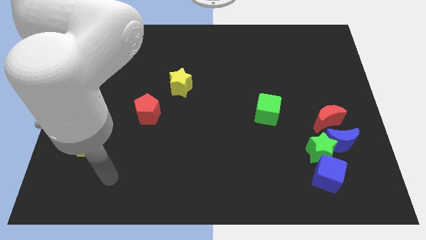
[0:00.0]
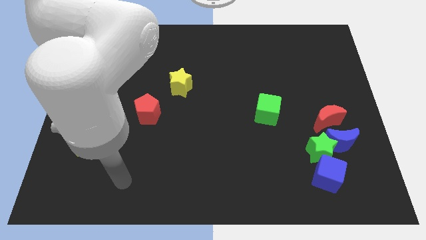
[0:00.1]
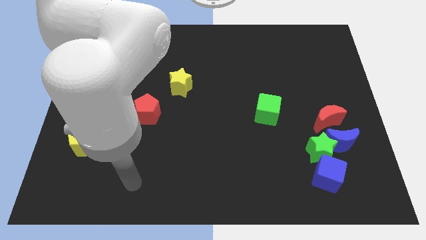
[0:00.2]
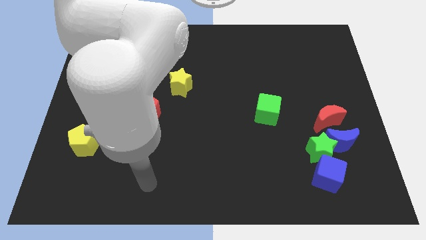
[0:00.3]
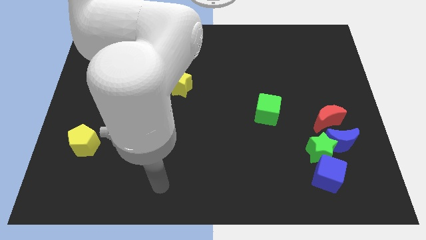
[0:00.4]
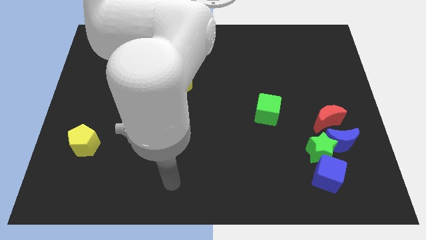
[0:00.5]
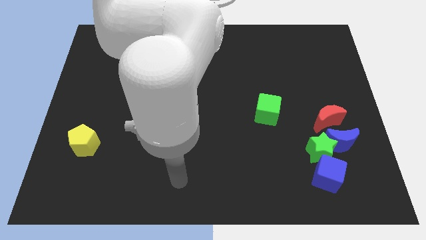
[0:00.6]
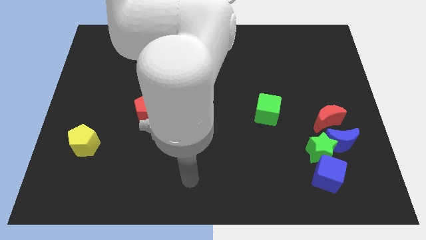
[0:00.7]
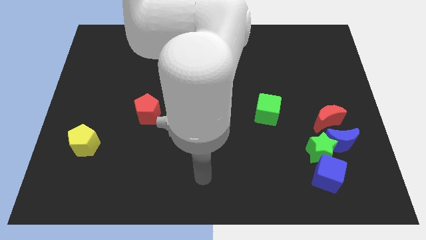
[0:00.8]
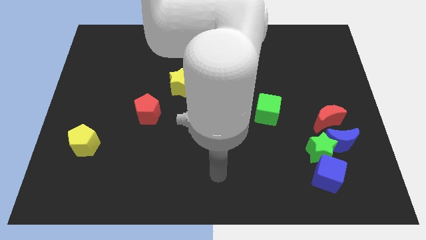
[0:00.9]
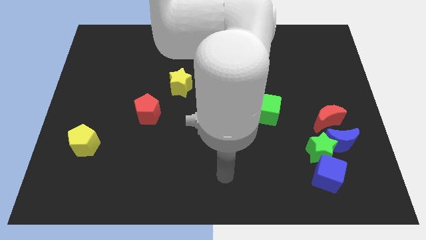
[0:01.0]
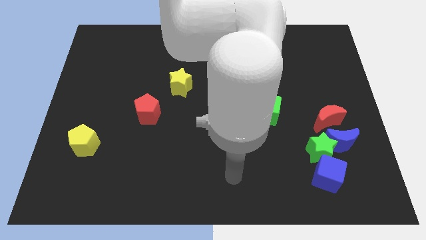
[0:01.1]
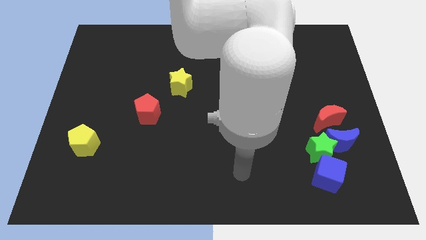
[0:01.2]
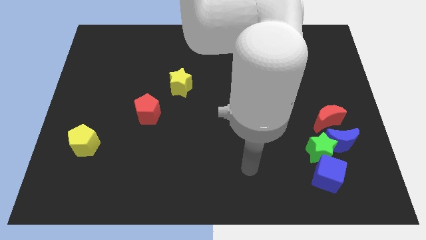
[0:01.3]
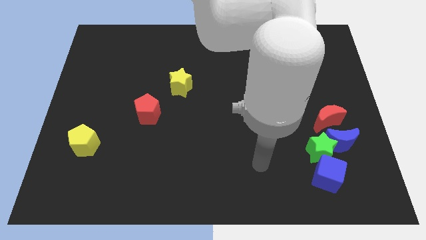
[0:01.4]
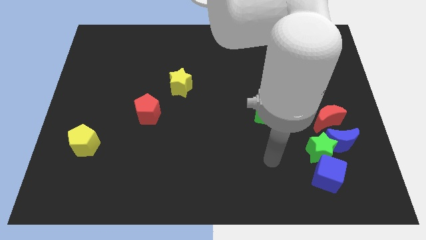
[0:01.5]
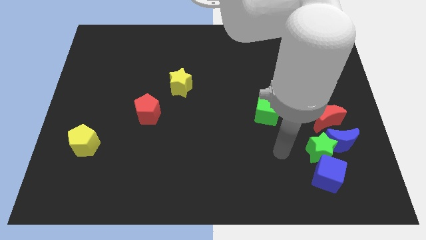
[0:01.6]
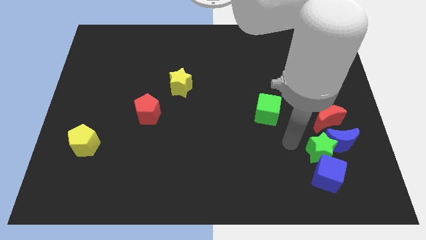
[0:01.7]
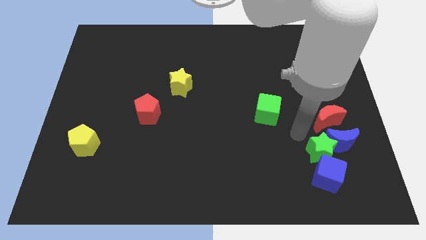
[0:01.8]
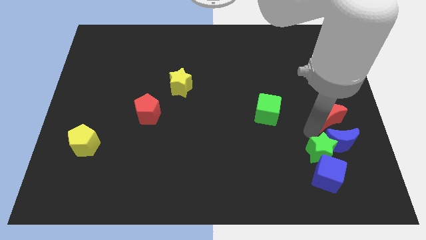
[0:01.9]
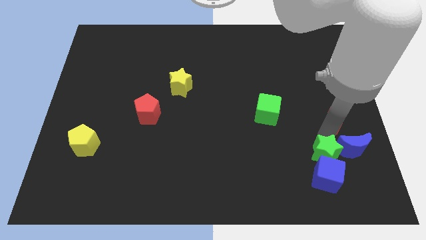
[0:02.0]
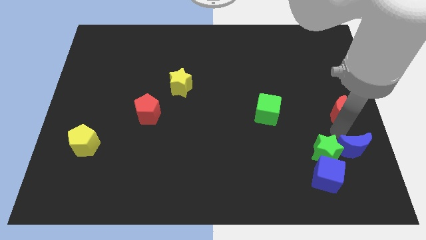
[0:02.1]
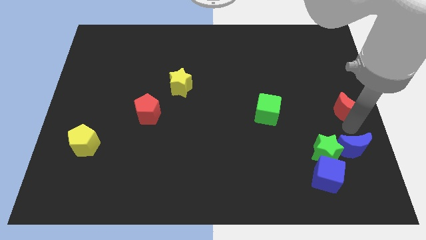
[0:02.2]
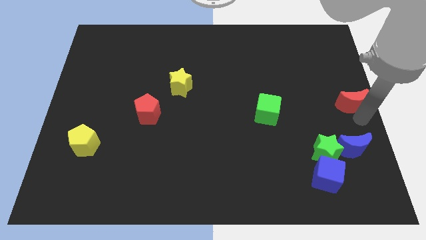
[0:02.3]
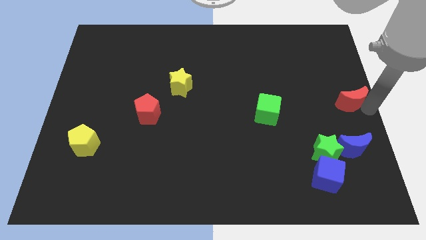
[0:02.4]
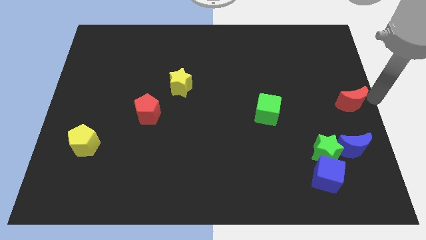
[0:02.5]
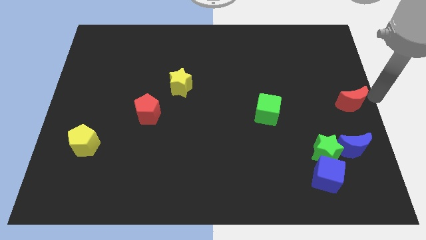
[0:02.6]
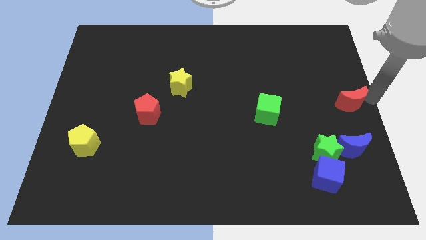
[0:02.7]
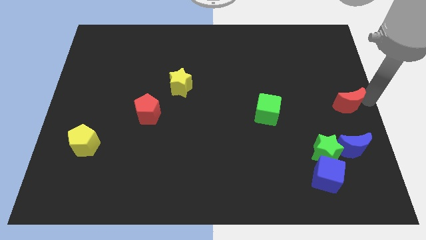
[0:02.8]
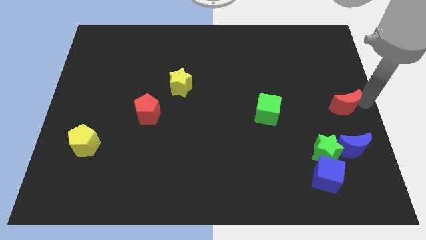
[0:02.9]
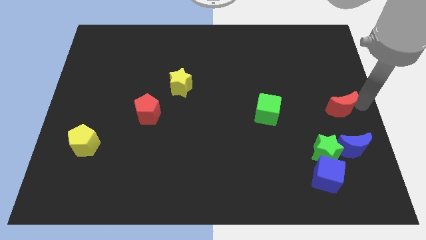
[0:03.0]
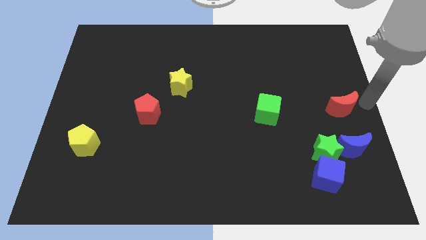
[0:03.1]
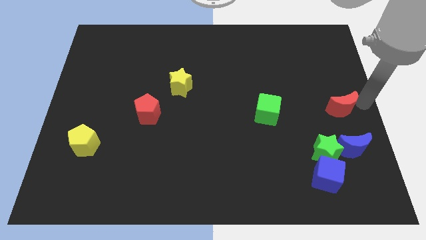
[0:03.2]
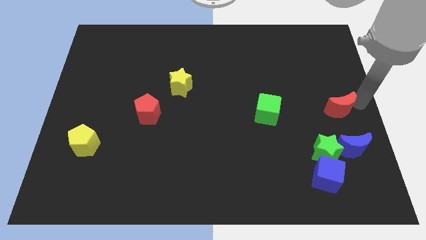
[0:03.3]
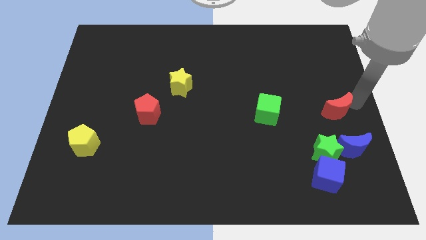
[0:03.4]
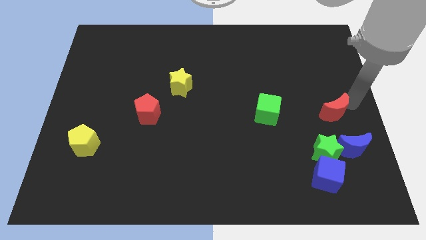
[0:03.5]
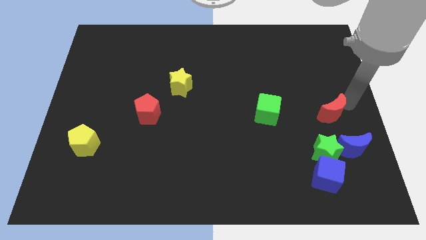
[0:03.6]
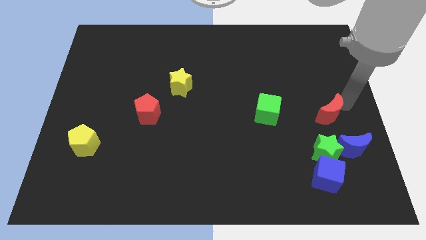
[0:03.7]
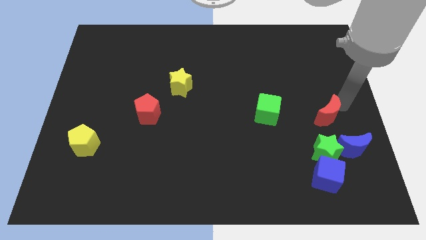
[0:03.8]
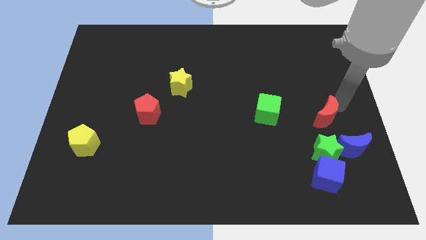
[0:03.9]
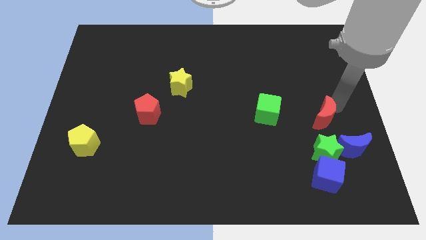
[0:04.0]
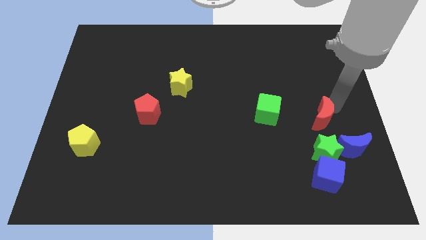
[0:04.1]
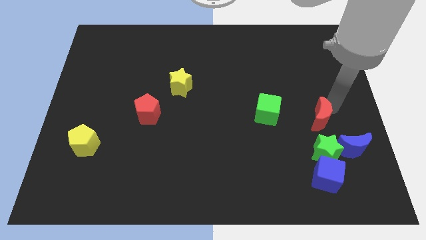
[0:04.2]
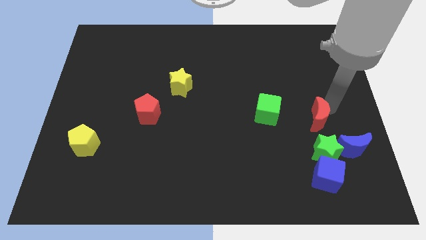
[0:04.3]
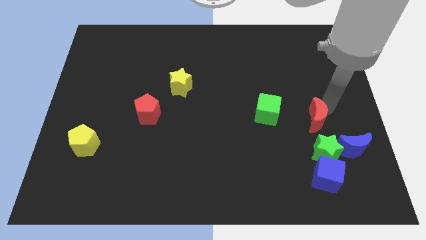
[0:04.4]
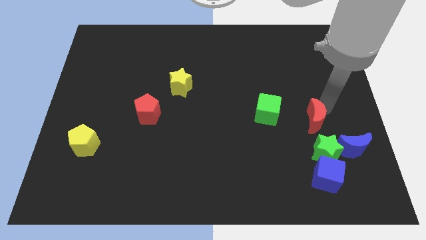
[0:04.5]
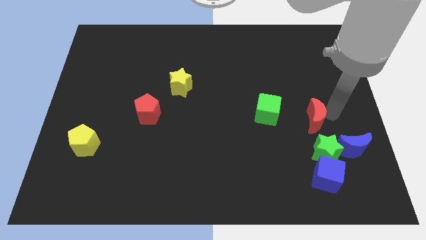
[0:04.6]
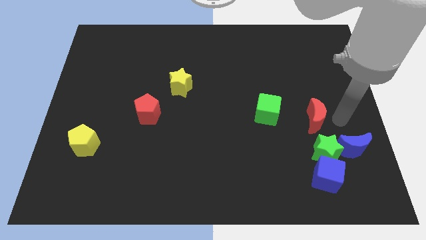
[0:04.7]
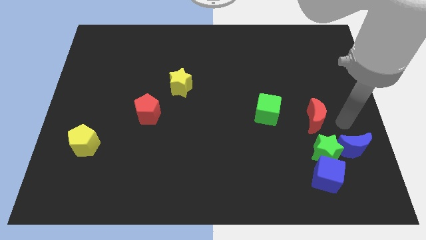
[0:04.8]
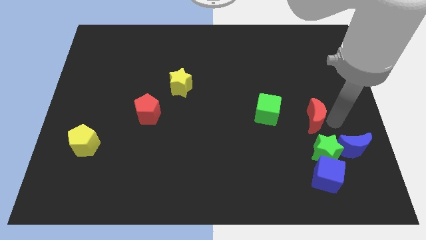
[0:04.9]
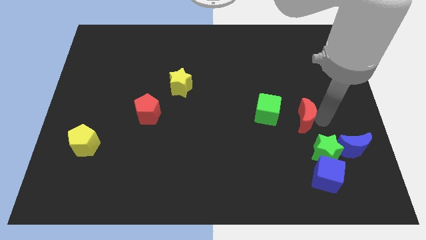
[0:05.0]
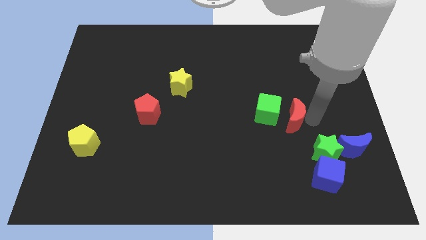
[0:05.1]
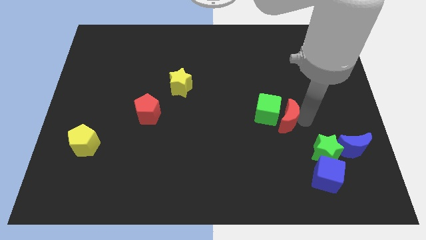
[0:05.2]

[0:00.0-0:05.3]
push the red moon to the green cube

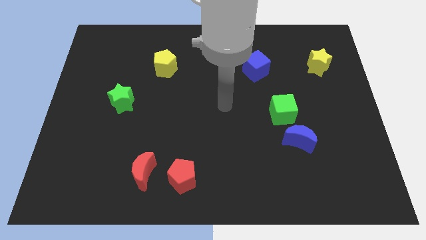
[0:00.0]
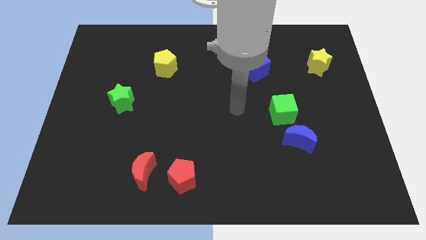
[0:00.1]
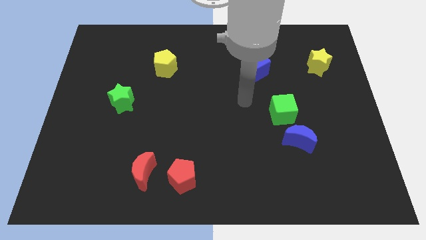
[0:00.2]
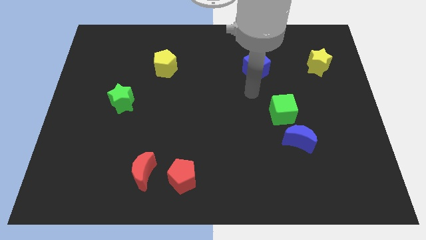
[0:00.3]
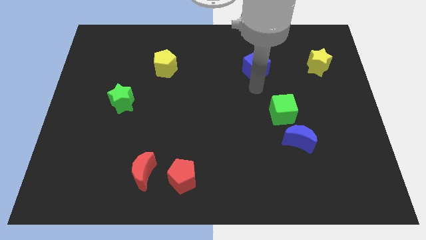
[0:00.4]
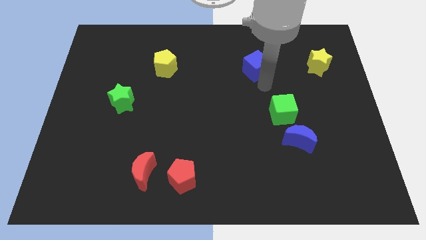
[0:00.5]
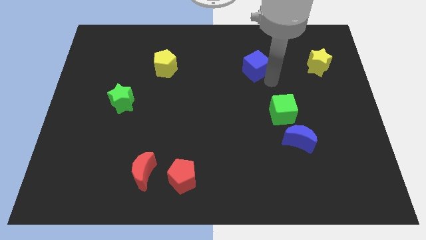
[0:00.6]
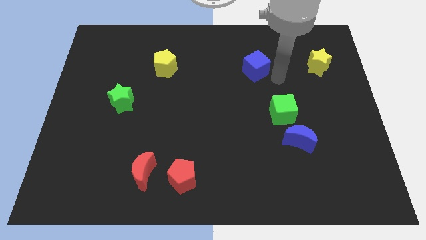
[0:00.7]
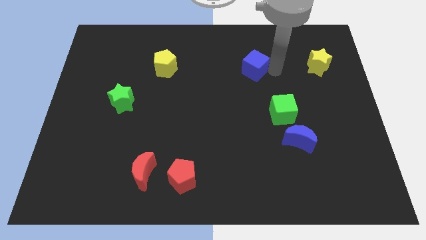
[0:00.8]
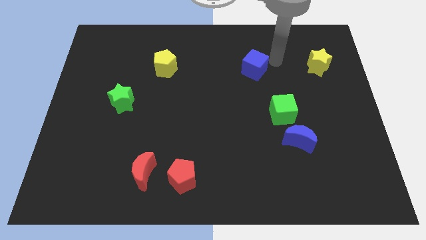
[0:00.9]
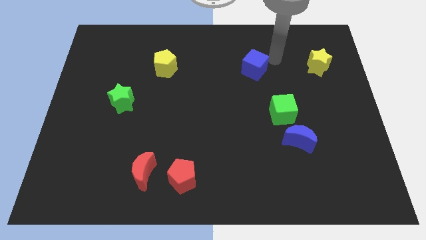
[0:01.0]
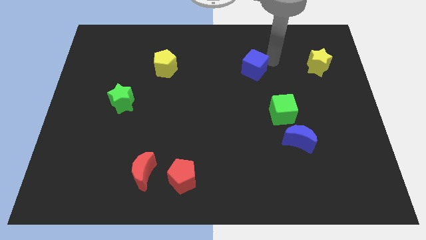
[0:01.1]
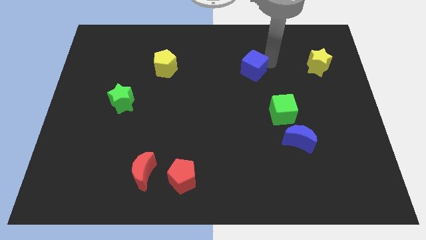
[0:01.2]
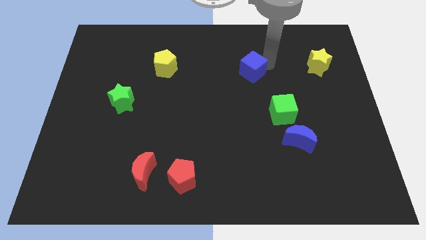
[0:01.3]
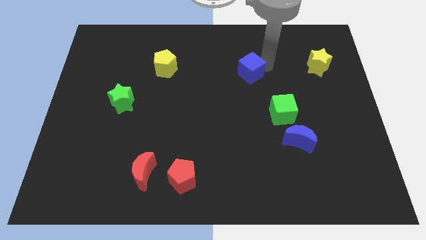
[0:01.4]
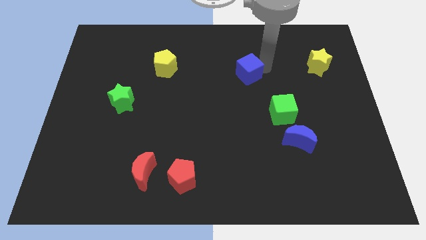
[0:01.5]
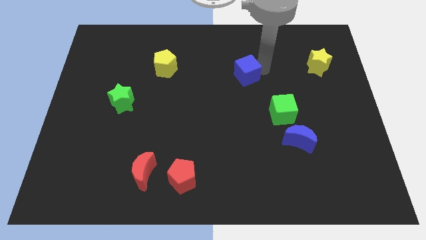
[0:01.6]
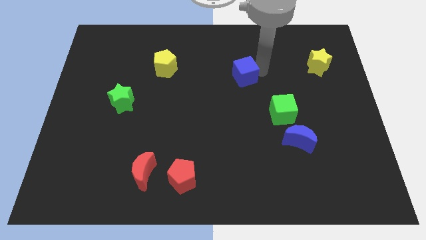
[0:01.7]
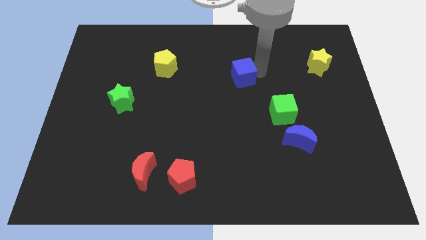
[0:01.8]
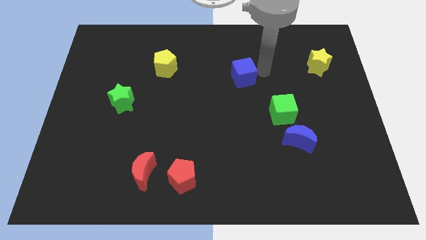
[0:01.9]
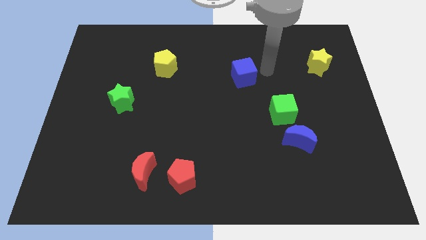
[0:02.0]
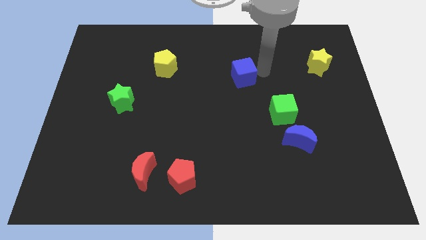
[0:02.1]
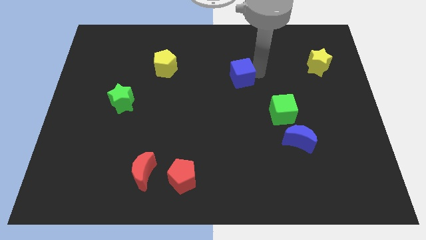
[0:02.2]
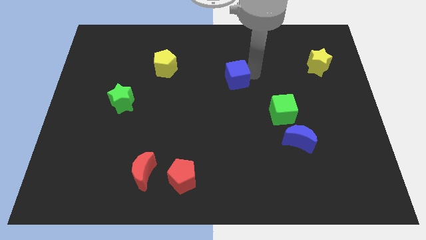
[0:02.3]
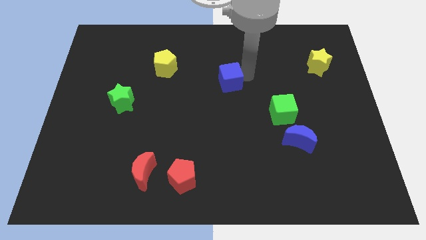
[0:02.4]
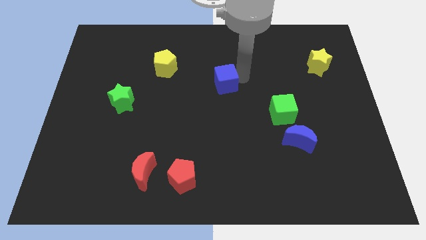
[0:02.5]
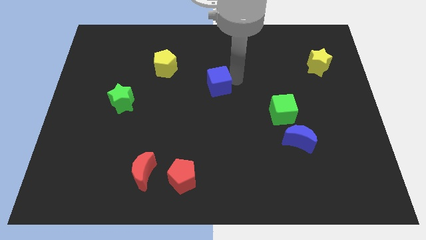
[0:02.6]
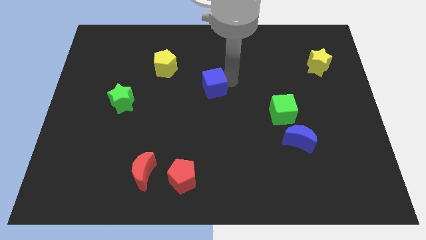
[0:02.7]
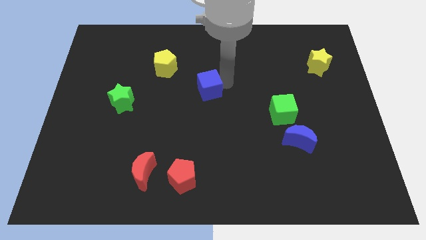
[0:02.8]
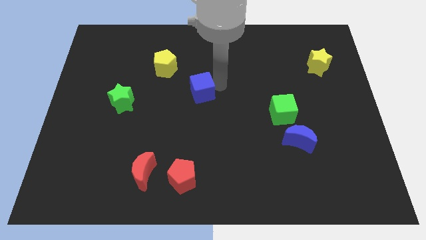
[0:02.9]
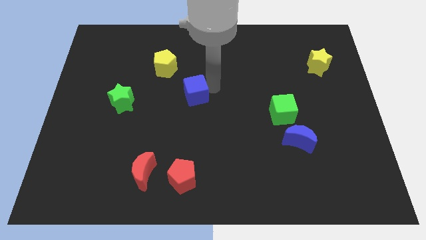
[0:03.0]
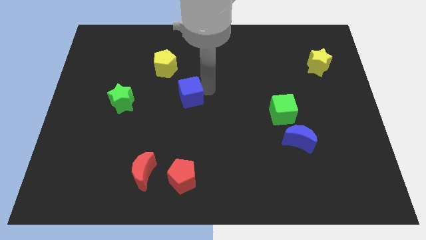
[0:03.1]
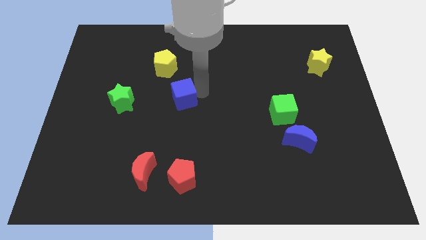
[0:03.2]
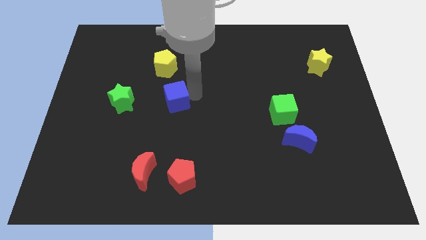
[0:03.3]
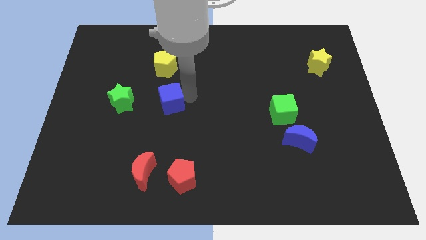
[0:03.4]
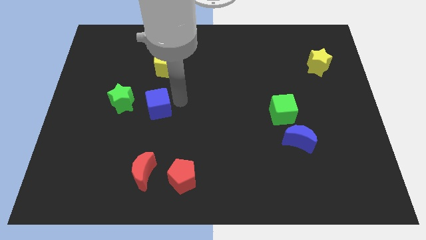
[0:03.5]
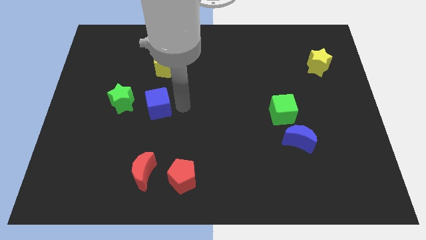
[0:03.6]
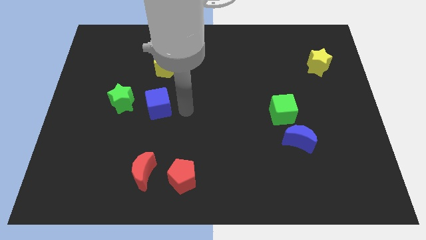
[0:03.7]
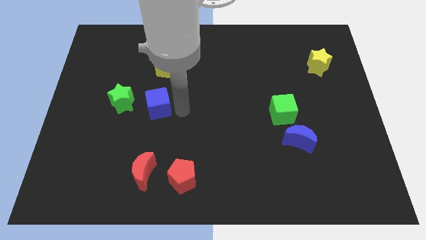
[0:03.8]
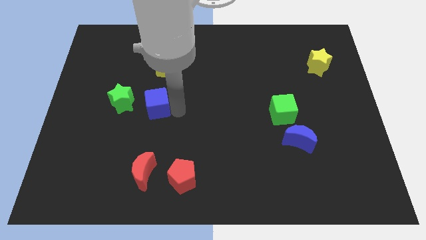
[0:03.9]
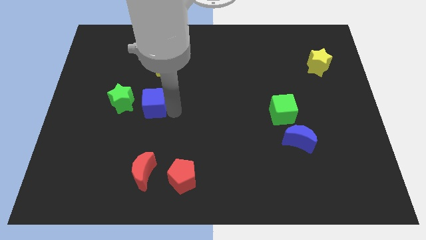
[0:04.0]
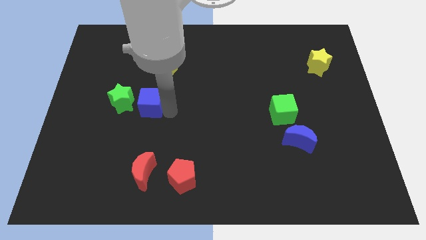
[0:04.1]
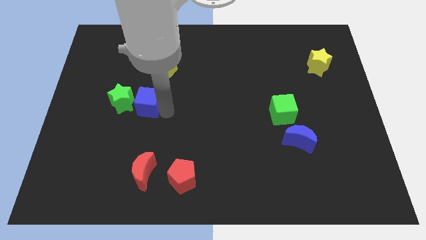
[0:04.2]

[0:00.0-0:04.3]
move the blue cube to the green star
